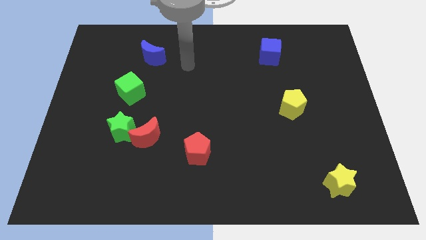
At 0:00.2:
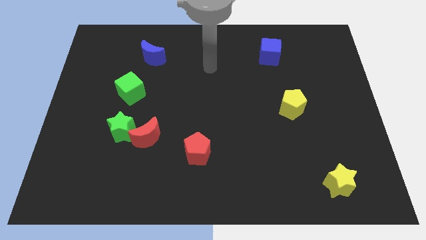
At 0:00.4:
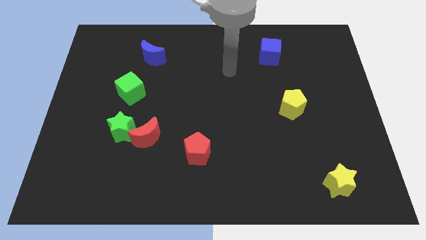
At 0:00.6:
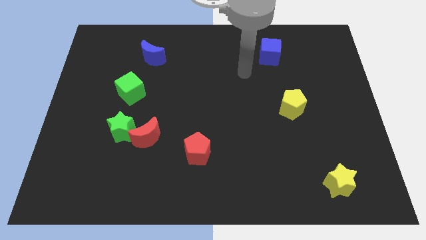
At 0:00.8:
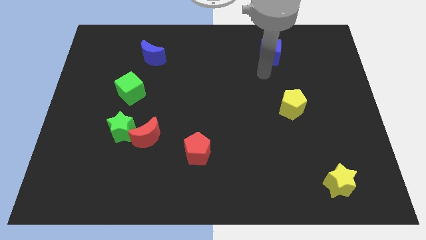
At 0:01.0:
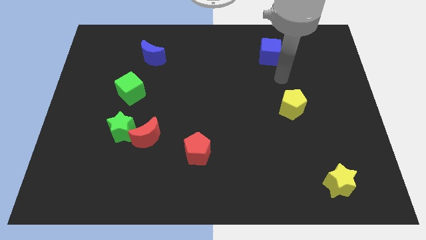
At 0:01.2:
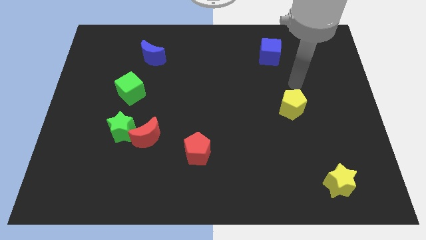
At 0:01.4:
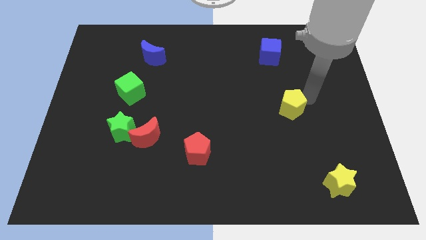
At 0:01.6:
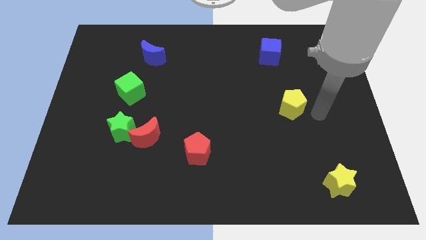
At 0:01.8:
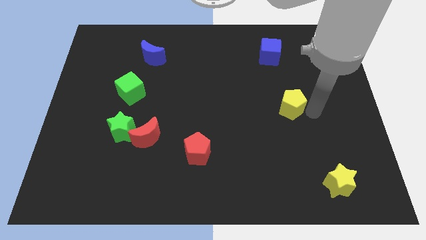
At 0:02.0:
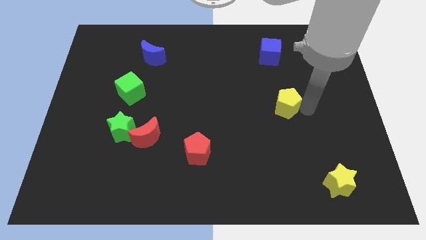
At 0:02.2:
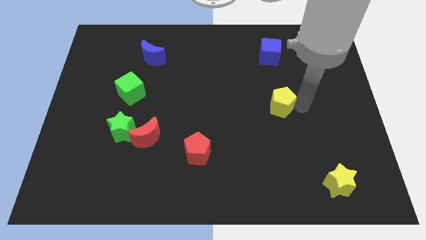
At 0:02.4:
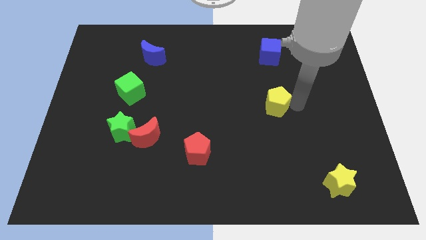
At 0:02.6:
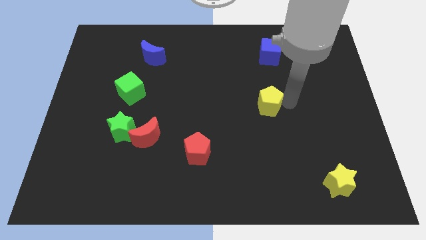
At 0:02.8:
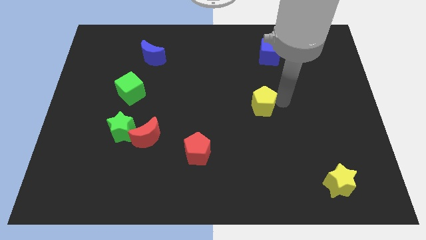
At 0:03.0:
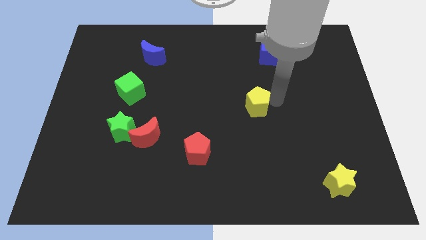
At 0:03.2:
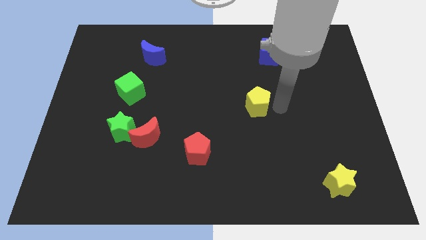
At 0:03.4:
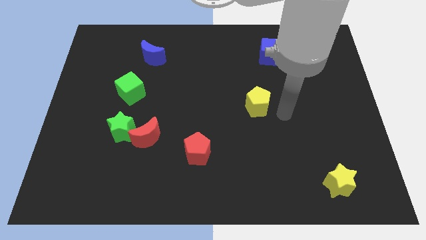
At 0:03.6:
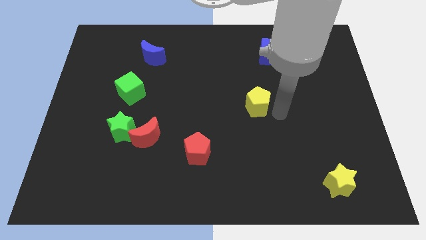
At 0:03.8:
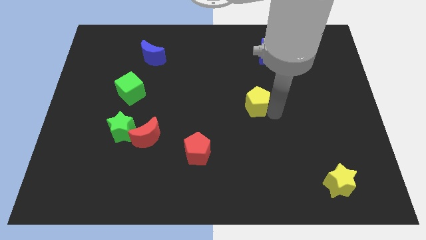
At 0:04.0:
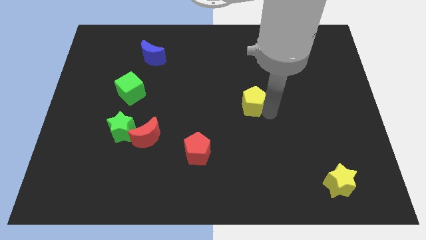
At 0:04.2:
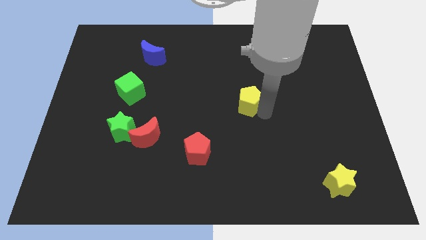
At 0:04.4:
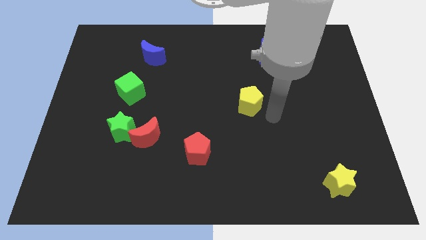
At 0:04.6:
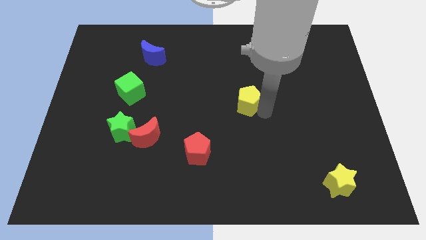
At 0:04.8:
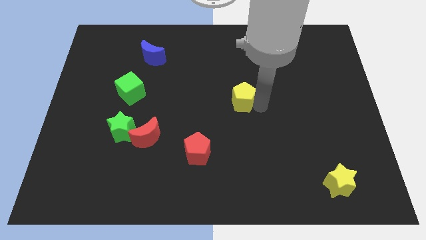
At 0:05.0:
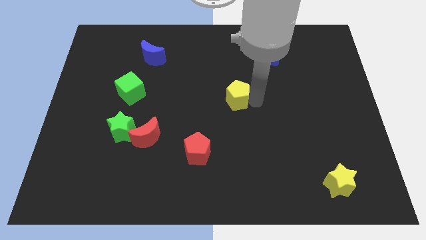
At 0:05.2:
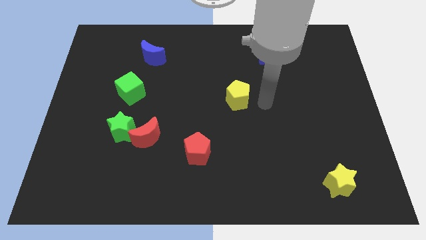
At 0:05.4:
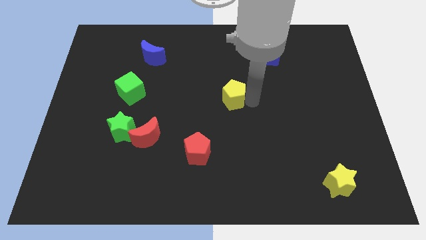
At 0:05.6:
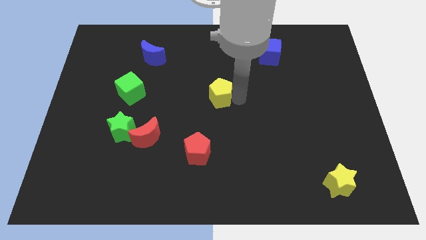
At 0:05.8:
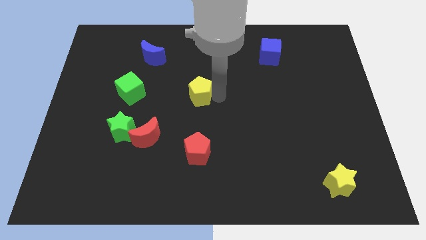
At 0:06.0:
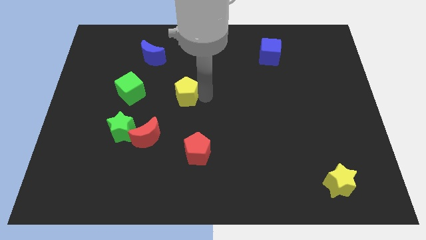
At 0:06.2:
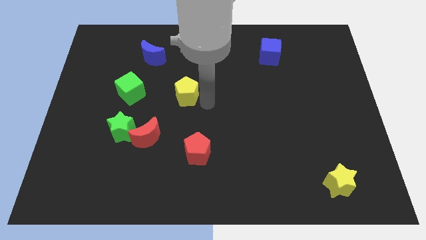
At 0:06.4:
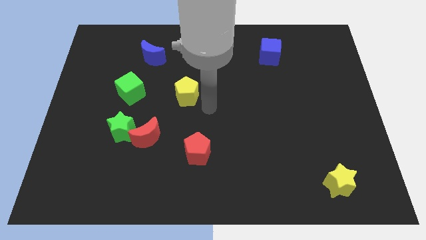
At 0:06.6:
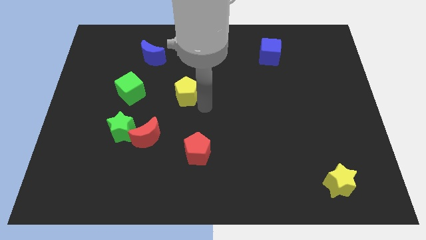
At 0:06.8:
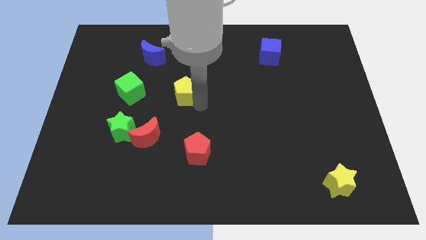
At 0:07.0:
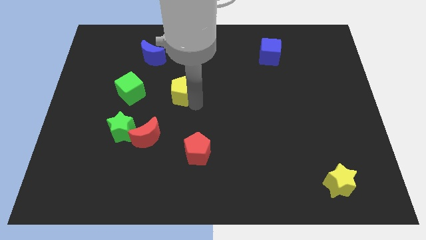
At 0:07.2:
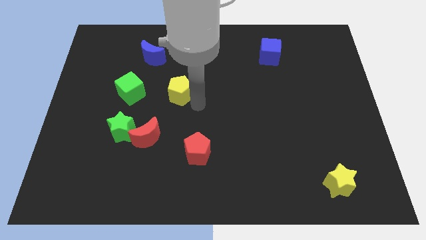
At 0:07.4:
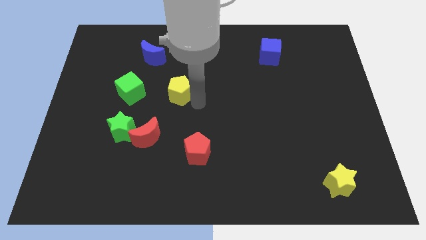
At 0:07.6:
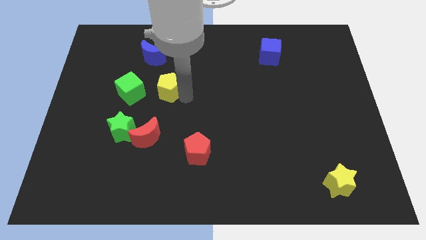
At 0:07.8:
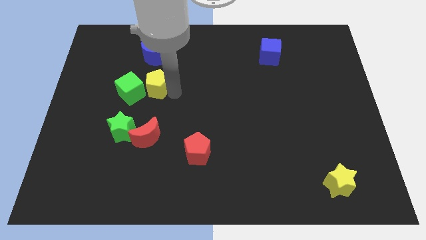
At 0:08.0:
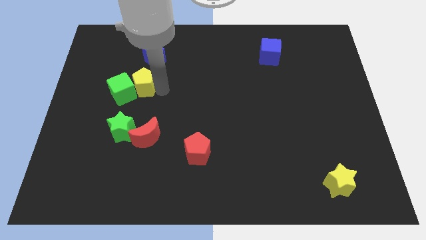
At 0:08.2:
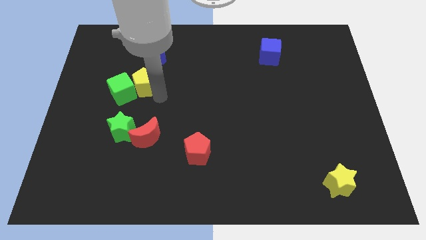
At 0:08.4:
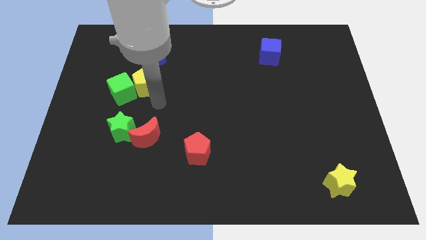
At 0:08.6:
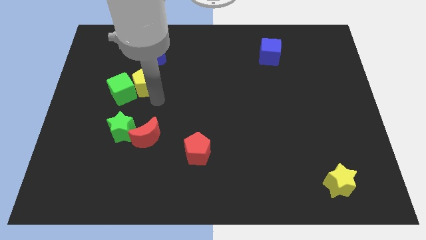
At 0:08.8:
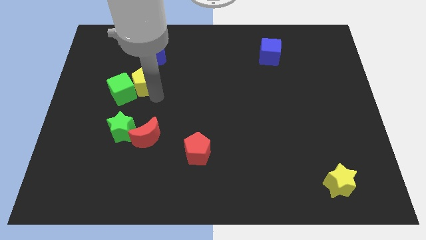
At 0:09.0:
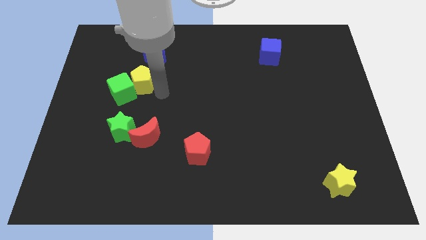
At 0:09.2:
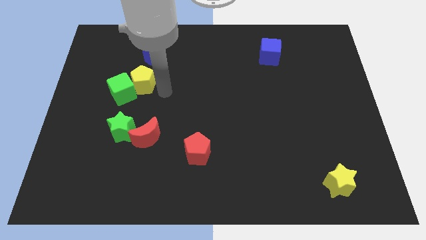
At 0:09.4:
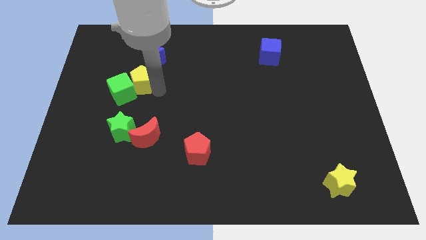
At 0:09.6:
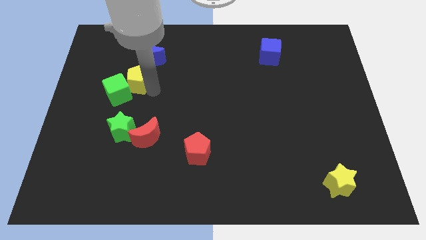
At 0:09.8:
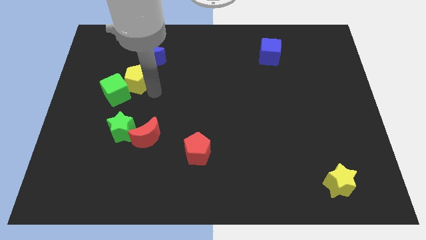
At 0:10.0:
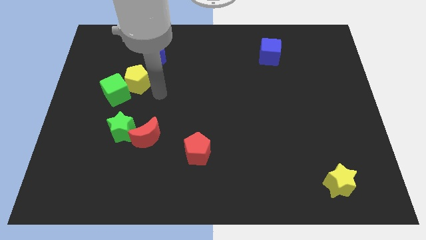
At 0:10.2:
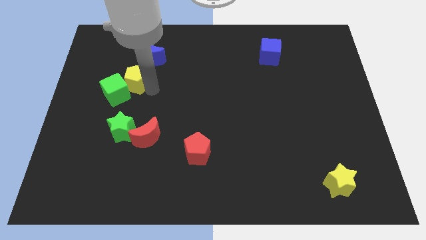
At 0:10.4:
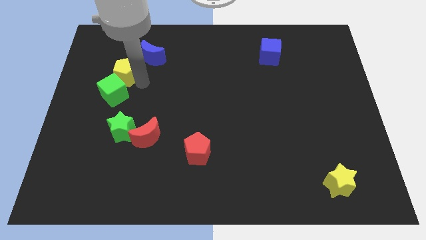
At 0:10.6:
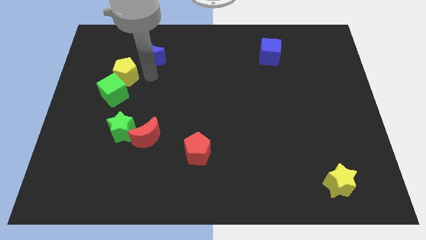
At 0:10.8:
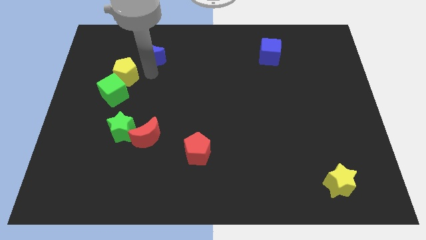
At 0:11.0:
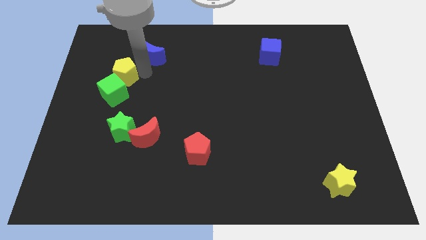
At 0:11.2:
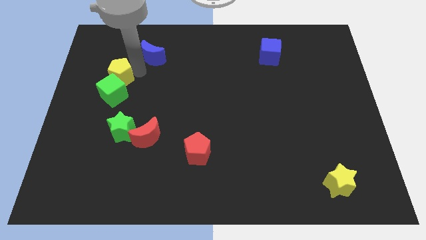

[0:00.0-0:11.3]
slide the yellow pentagon to the top left of the green cube

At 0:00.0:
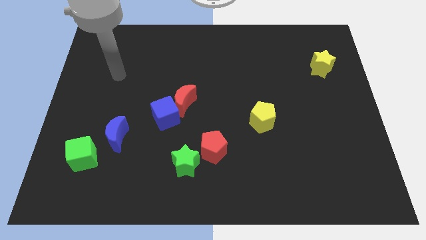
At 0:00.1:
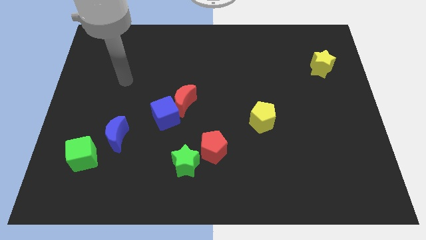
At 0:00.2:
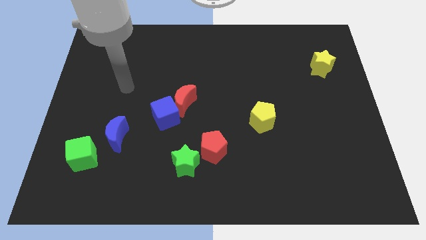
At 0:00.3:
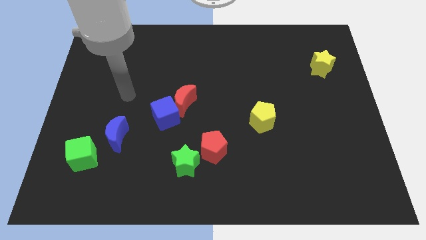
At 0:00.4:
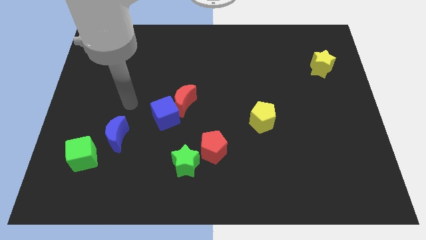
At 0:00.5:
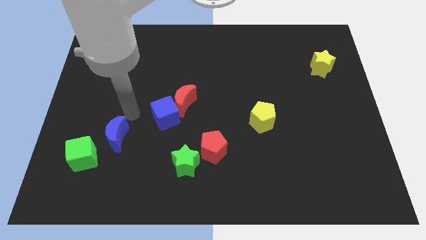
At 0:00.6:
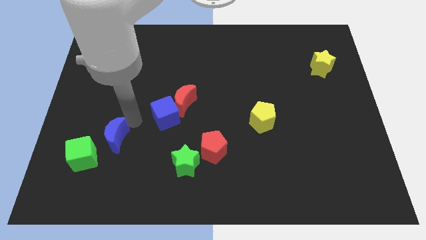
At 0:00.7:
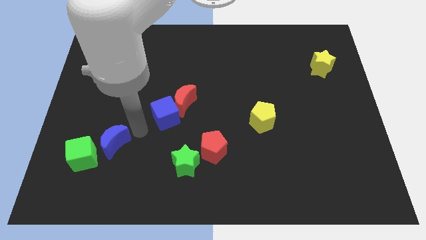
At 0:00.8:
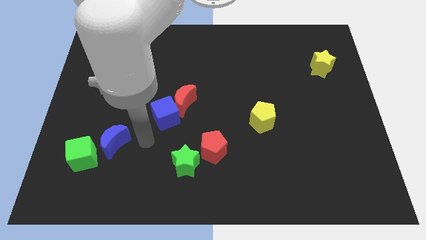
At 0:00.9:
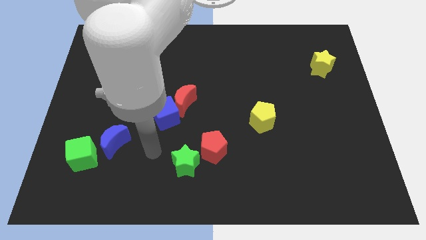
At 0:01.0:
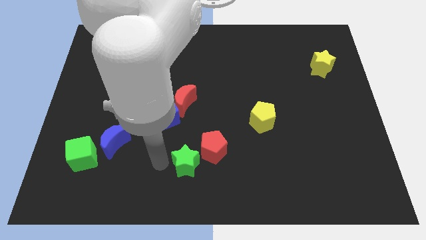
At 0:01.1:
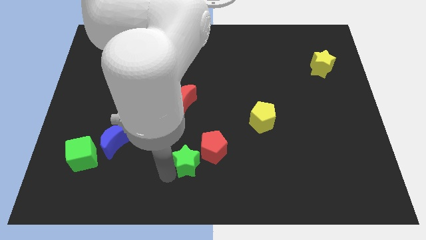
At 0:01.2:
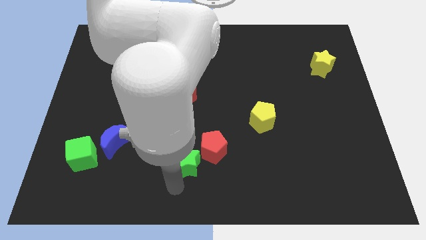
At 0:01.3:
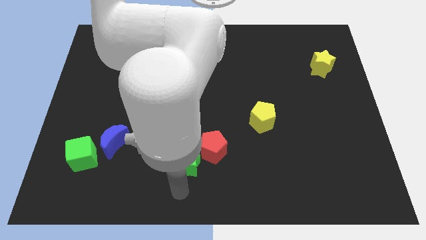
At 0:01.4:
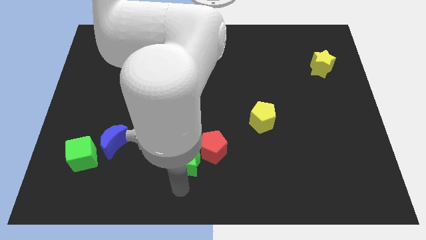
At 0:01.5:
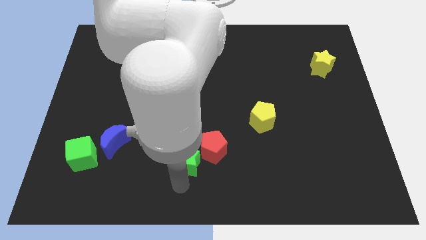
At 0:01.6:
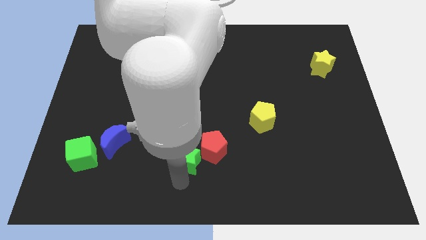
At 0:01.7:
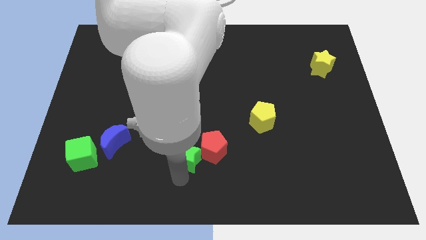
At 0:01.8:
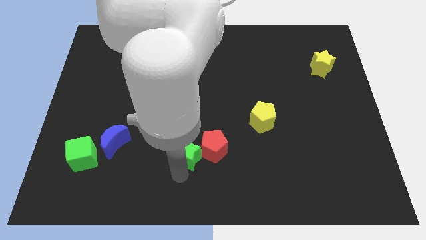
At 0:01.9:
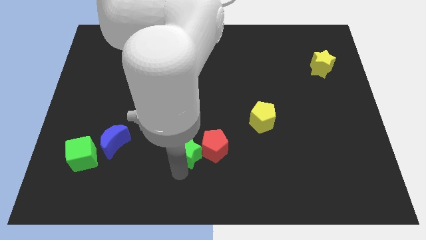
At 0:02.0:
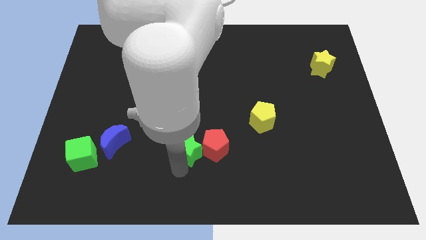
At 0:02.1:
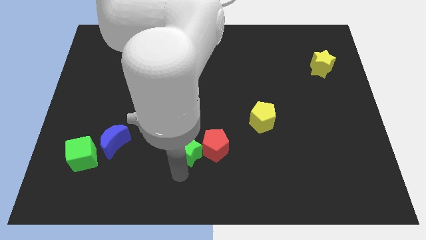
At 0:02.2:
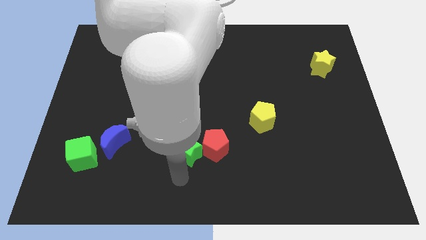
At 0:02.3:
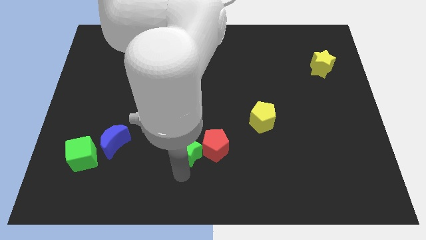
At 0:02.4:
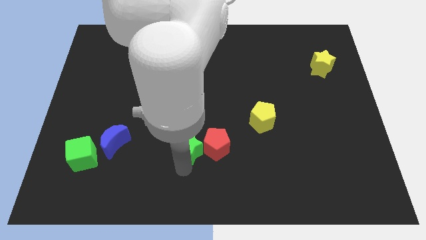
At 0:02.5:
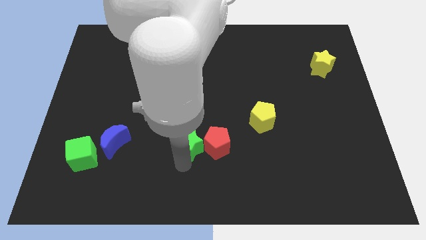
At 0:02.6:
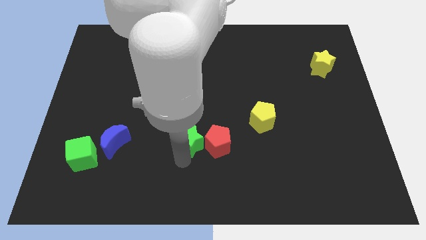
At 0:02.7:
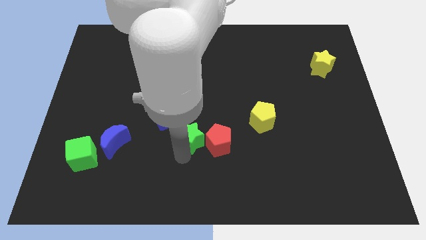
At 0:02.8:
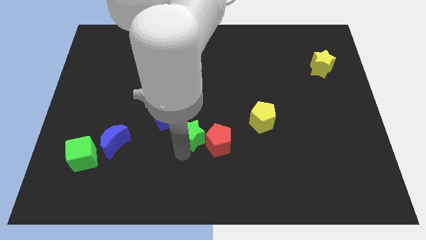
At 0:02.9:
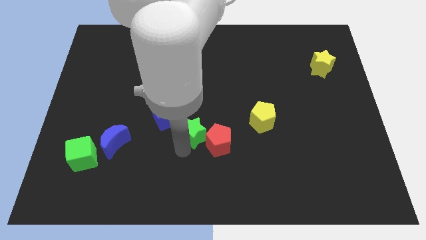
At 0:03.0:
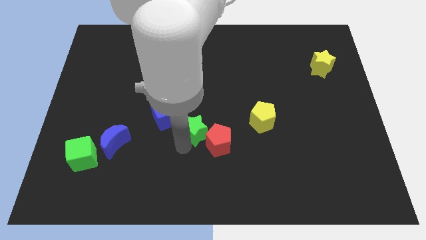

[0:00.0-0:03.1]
put the green star to the left side of the yellow pentagon
